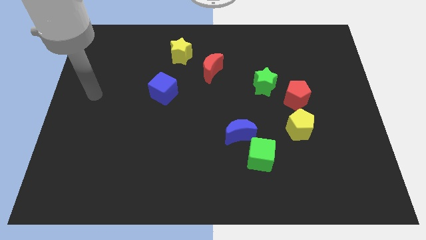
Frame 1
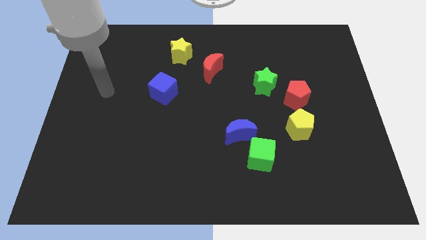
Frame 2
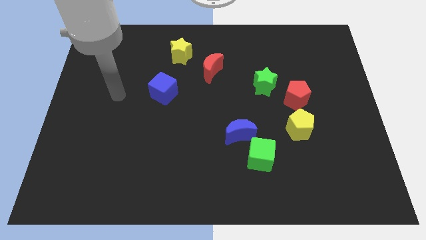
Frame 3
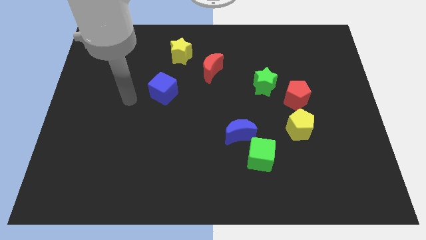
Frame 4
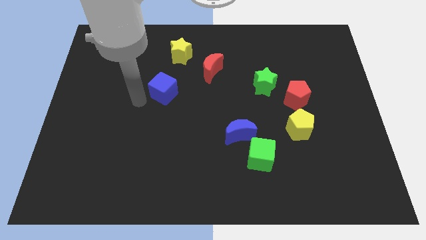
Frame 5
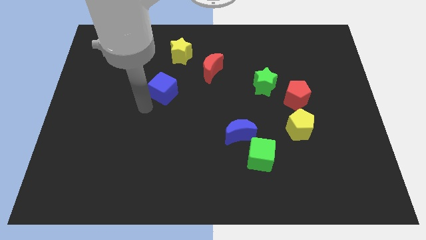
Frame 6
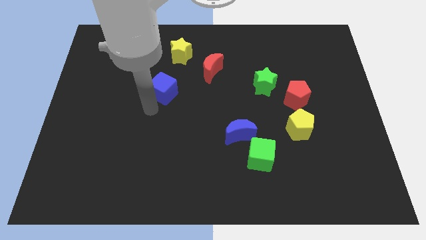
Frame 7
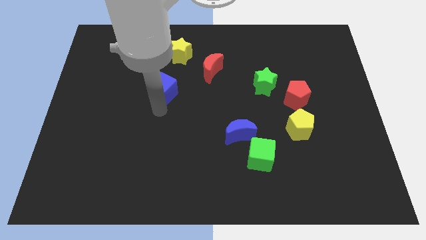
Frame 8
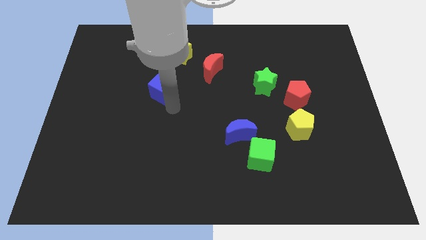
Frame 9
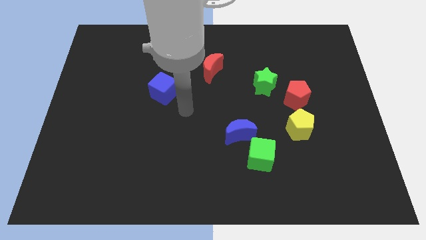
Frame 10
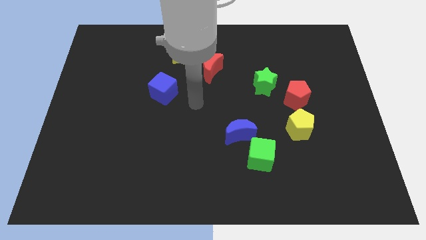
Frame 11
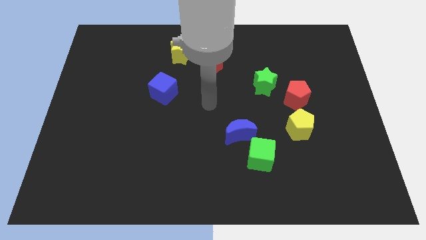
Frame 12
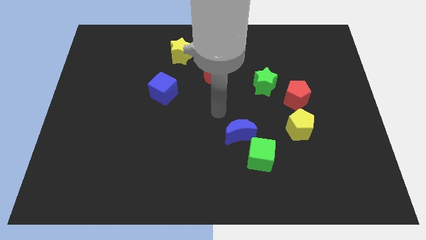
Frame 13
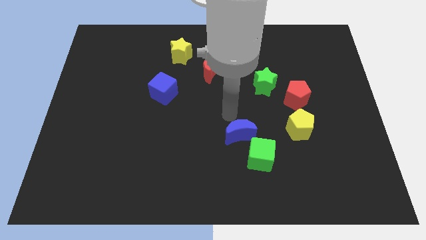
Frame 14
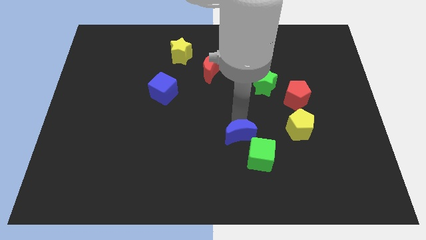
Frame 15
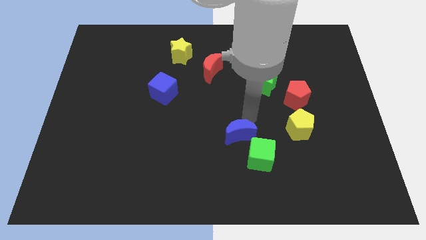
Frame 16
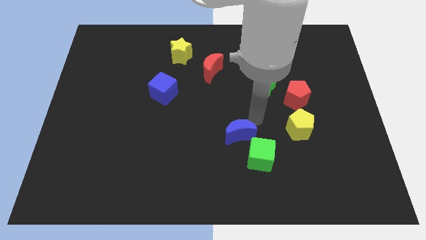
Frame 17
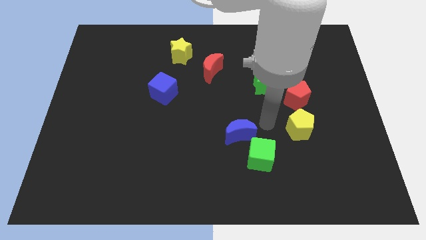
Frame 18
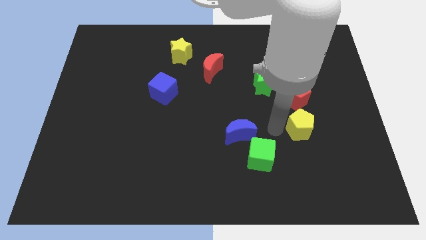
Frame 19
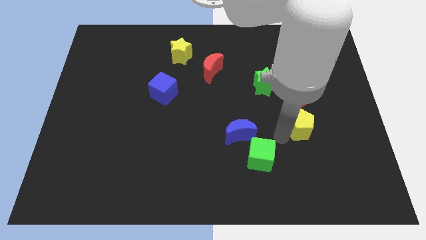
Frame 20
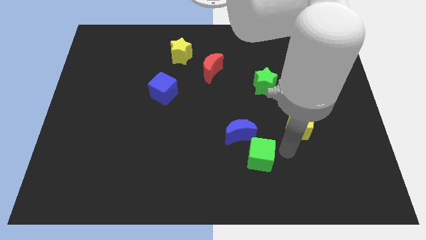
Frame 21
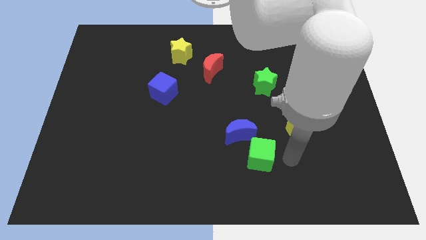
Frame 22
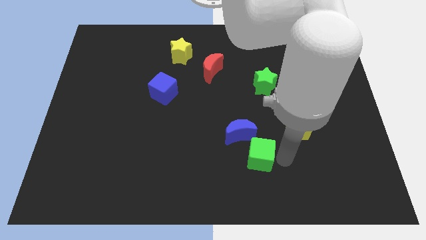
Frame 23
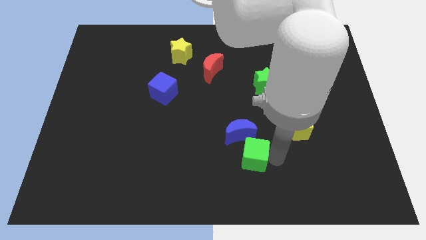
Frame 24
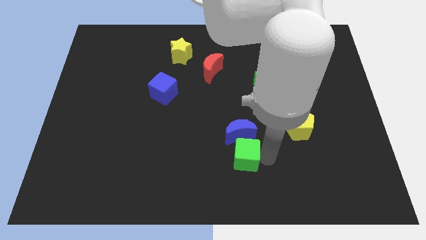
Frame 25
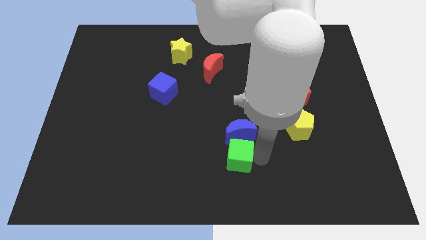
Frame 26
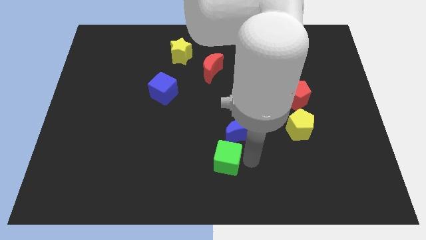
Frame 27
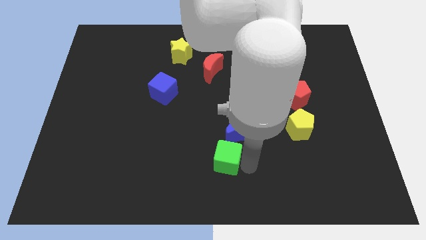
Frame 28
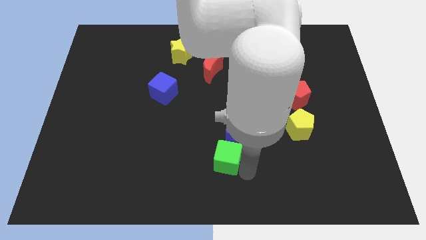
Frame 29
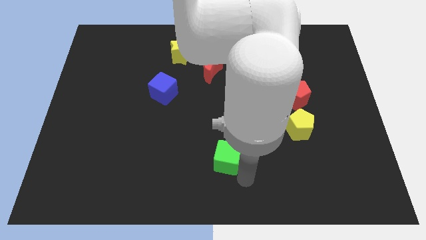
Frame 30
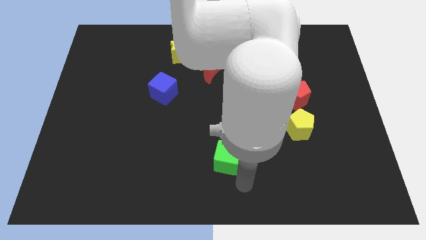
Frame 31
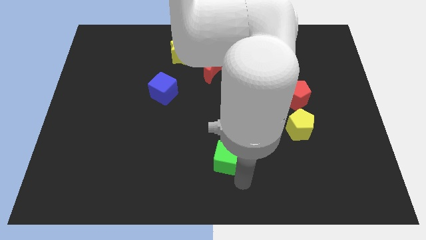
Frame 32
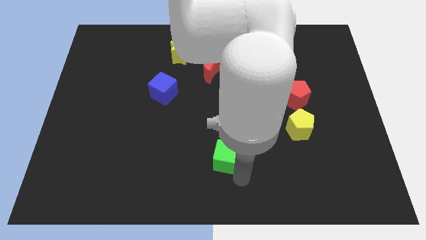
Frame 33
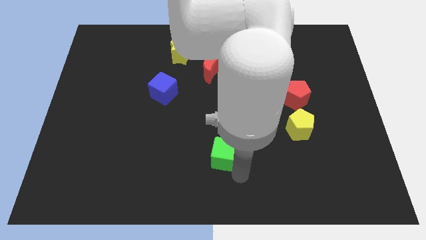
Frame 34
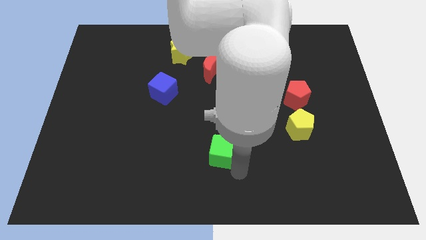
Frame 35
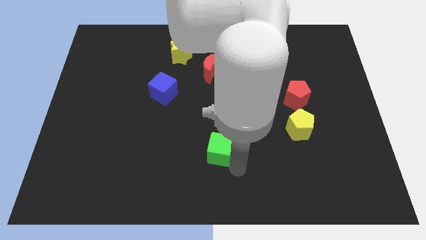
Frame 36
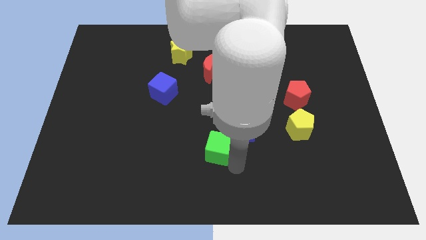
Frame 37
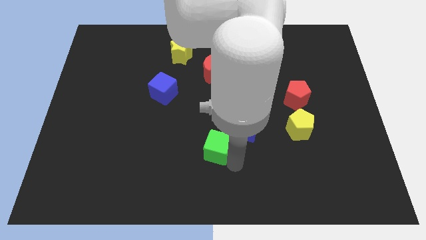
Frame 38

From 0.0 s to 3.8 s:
push the green cube slightly upwards and then left

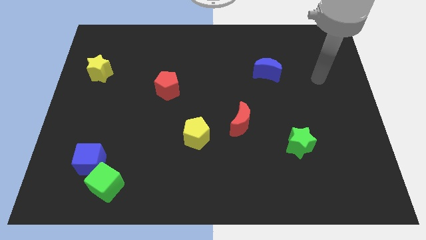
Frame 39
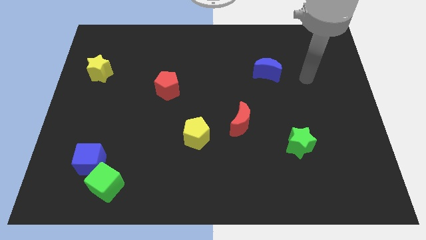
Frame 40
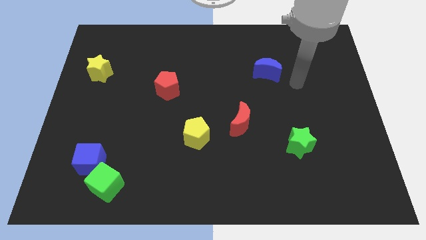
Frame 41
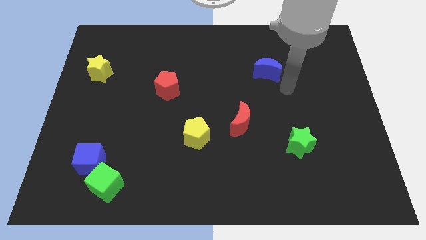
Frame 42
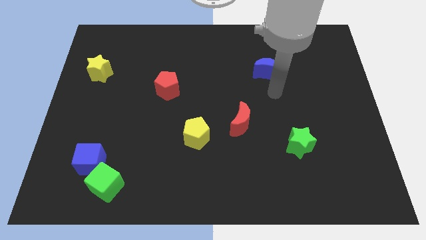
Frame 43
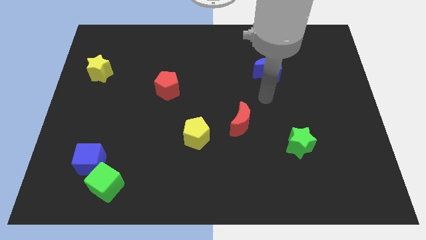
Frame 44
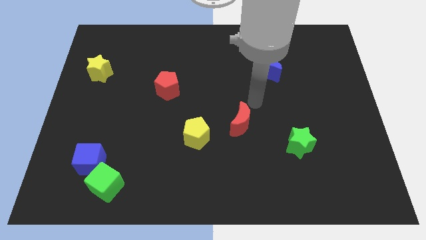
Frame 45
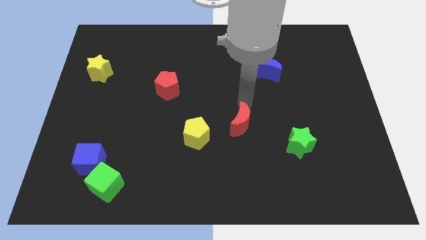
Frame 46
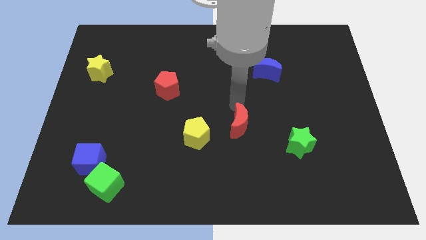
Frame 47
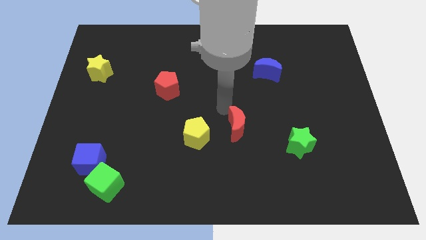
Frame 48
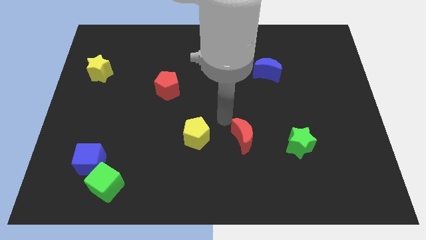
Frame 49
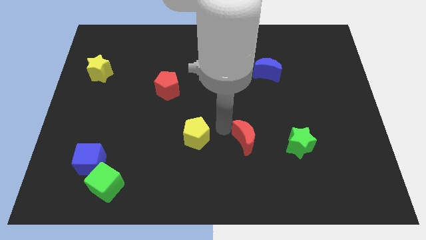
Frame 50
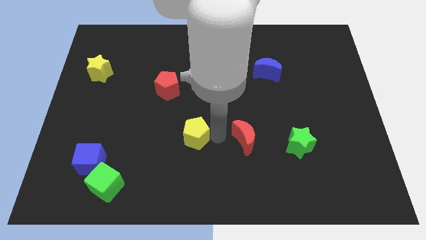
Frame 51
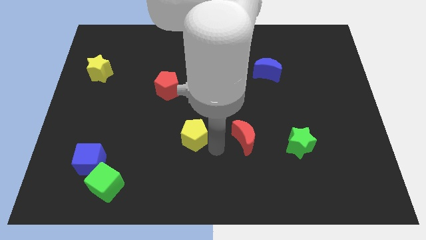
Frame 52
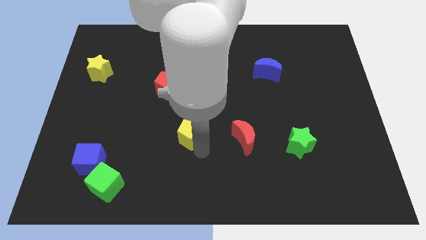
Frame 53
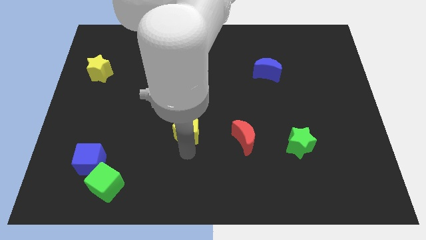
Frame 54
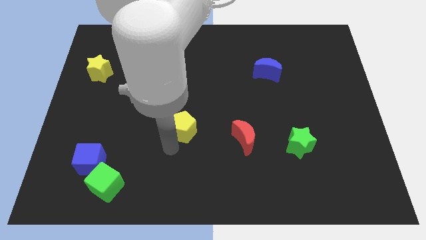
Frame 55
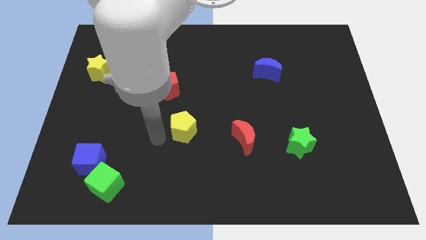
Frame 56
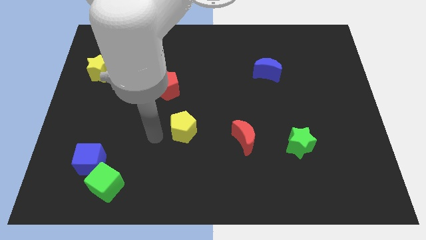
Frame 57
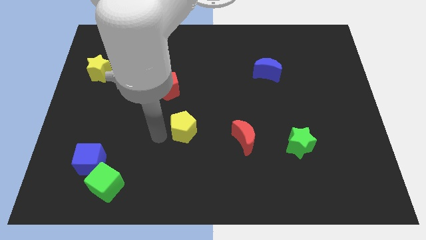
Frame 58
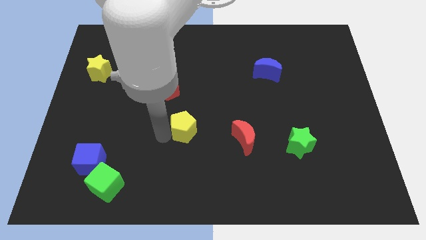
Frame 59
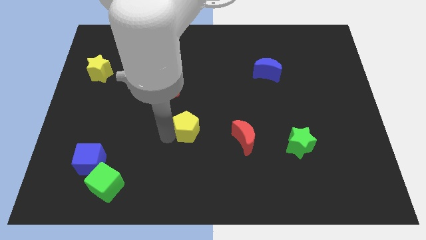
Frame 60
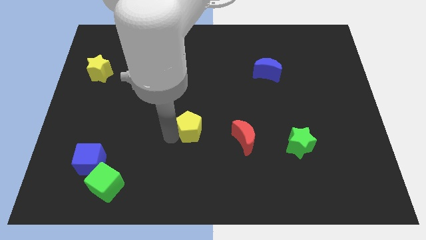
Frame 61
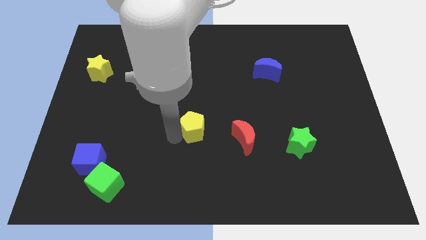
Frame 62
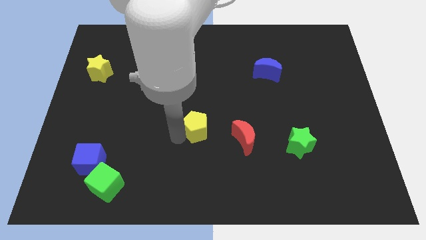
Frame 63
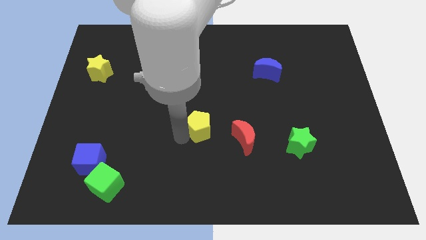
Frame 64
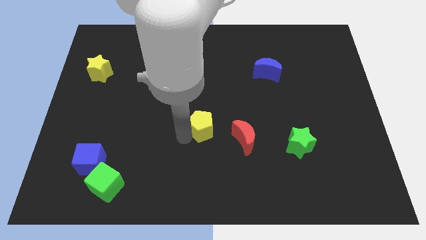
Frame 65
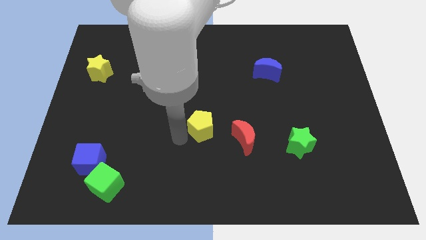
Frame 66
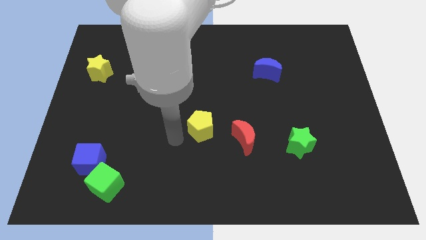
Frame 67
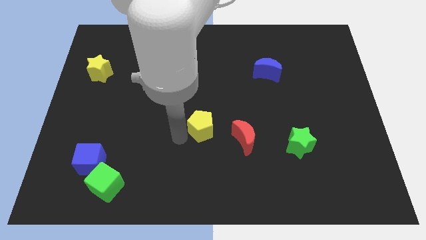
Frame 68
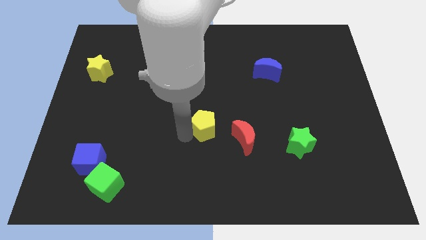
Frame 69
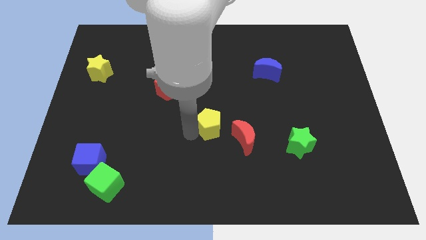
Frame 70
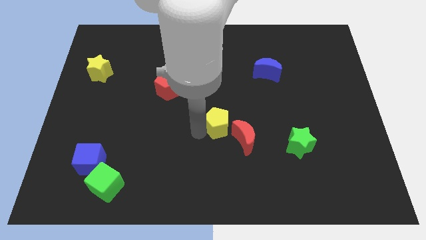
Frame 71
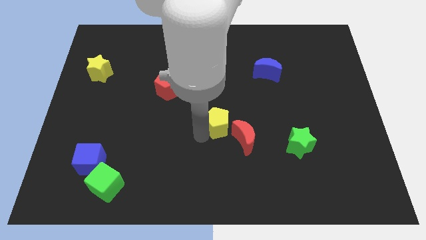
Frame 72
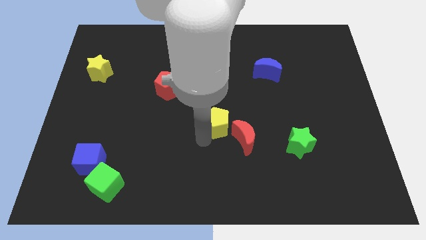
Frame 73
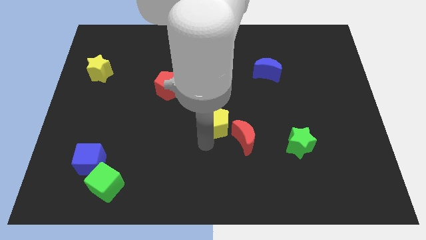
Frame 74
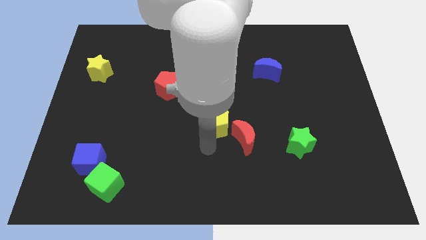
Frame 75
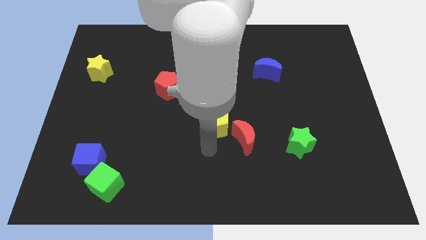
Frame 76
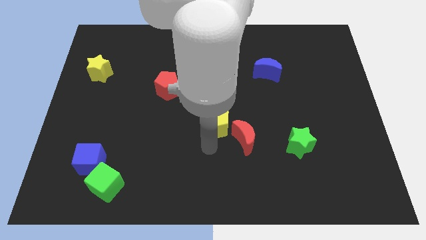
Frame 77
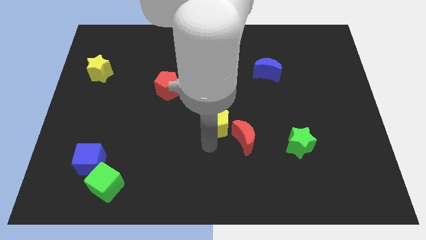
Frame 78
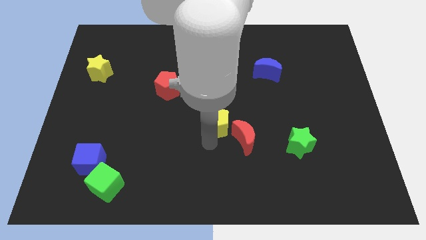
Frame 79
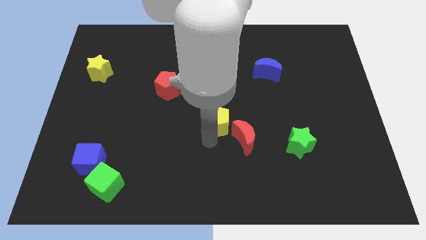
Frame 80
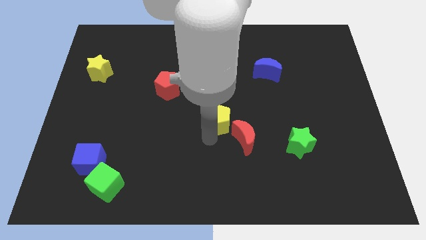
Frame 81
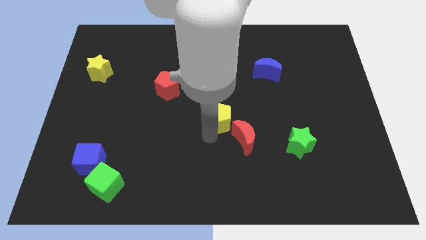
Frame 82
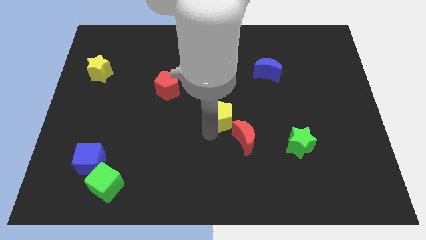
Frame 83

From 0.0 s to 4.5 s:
slide the yellow pentagon up and right a little bit
